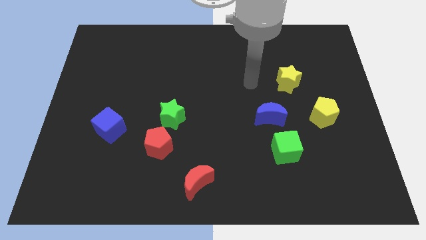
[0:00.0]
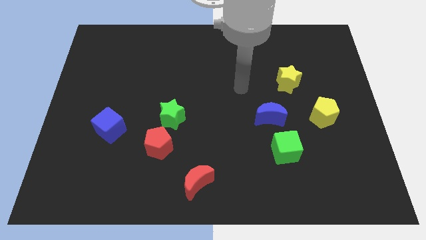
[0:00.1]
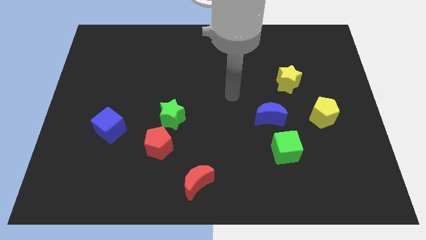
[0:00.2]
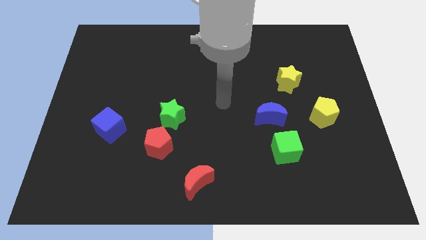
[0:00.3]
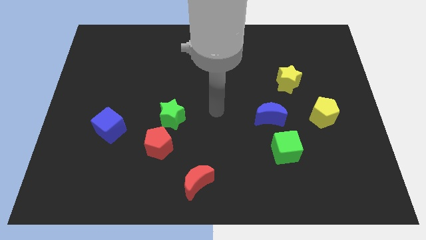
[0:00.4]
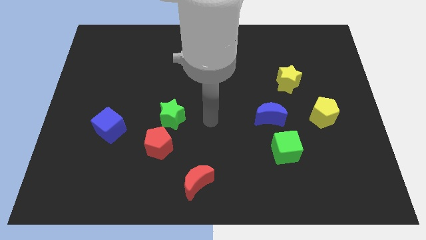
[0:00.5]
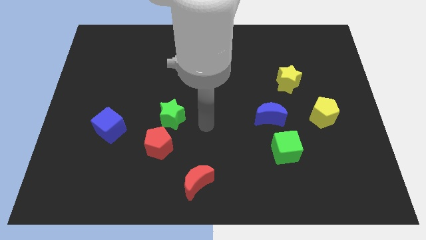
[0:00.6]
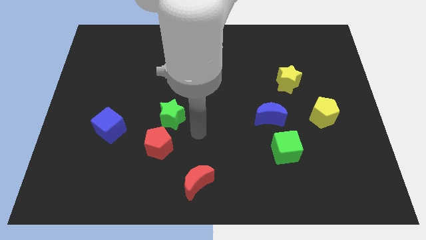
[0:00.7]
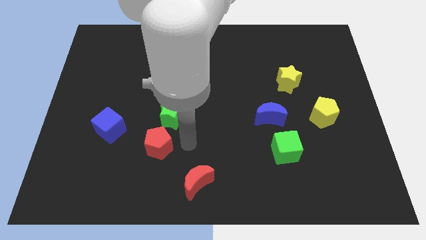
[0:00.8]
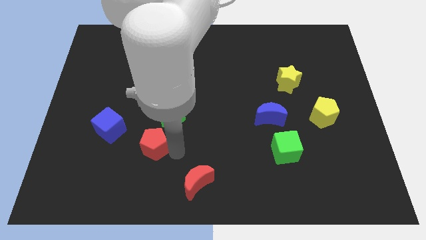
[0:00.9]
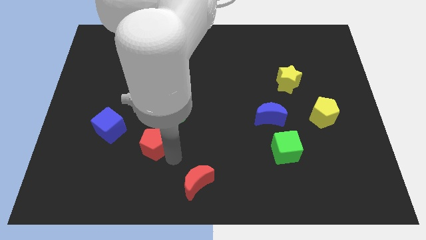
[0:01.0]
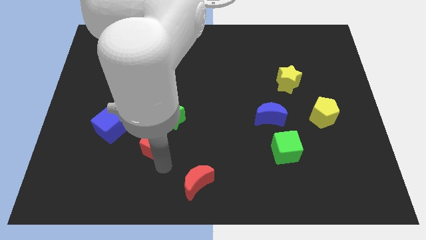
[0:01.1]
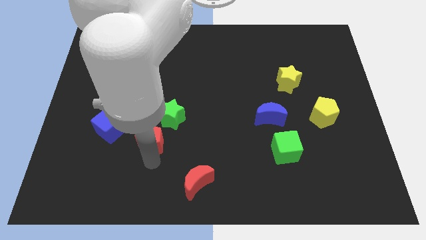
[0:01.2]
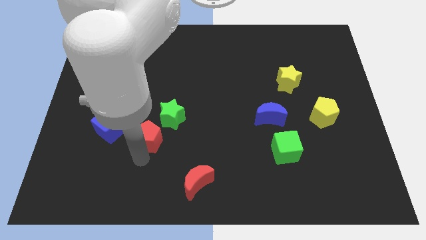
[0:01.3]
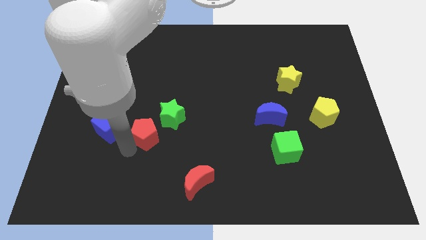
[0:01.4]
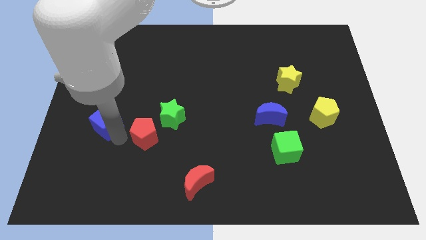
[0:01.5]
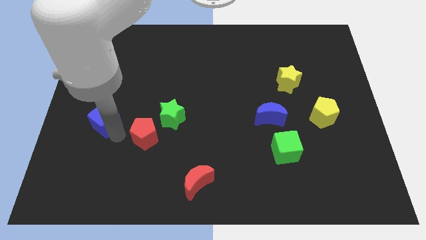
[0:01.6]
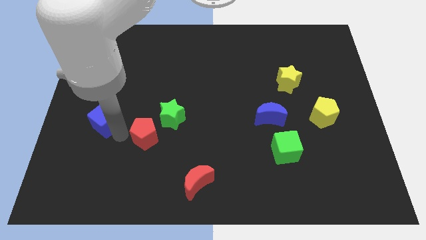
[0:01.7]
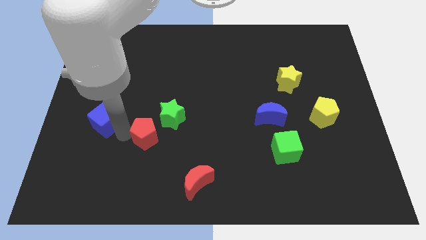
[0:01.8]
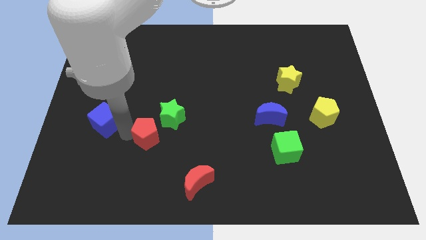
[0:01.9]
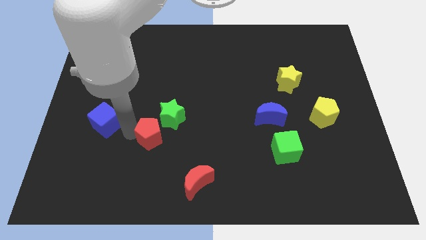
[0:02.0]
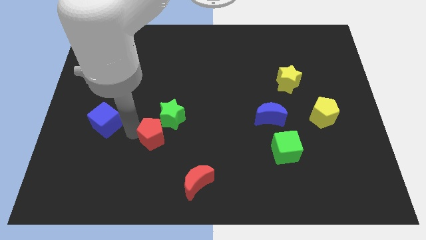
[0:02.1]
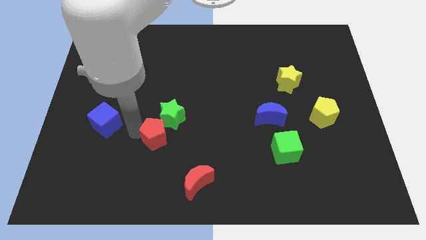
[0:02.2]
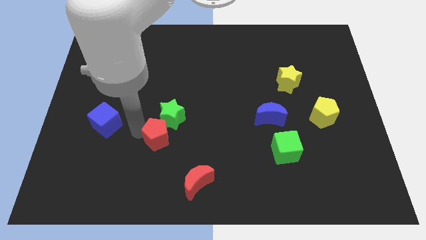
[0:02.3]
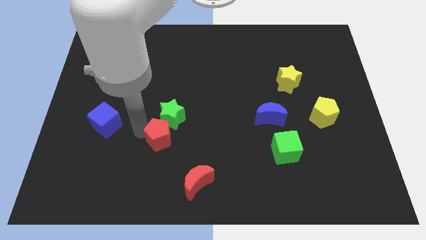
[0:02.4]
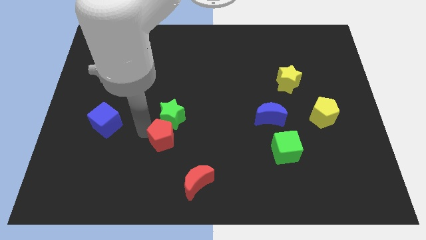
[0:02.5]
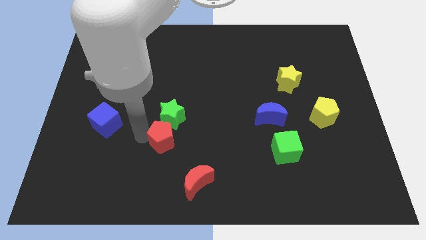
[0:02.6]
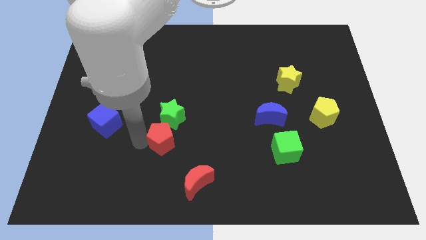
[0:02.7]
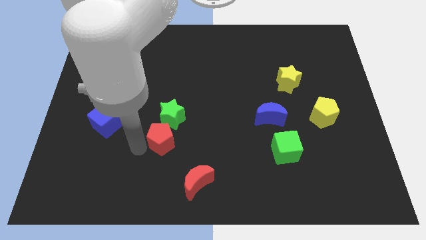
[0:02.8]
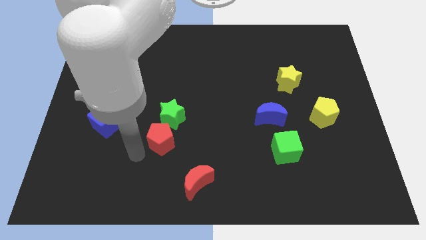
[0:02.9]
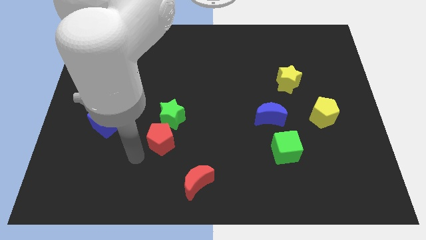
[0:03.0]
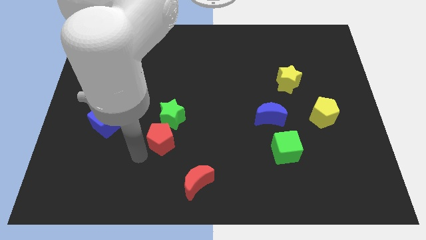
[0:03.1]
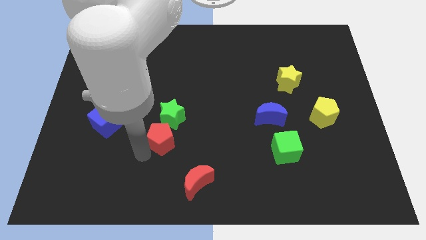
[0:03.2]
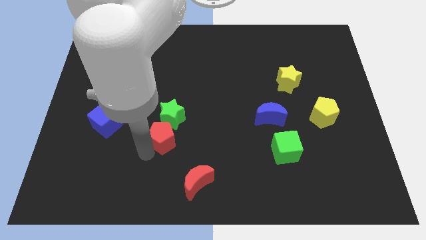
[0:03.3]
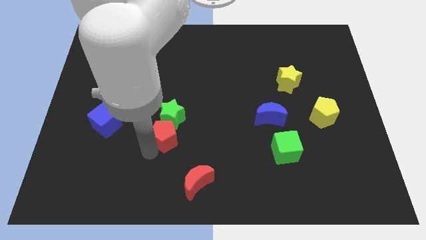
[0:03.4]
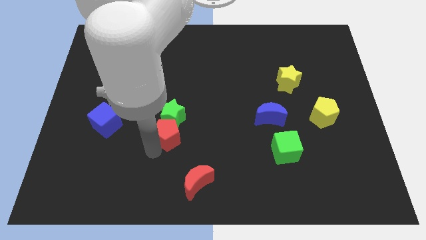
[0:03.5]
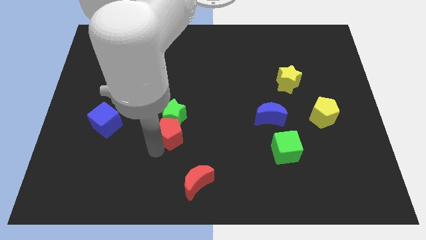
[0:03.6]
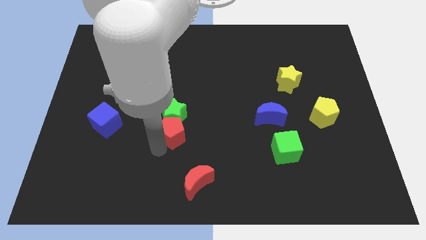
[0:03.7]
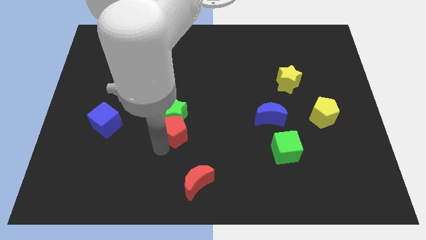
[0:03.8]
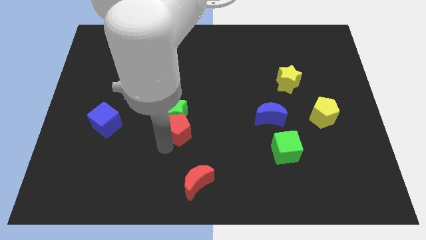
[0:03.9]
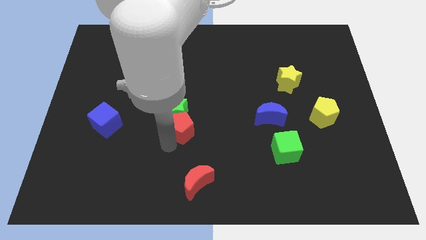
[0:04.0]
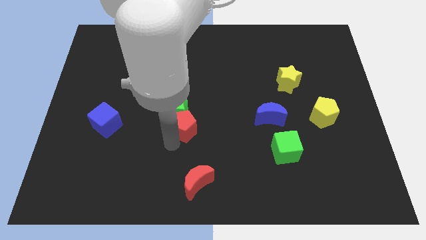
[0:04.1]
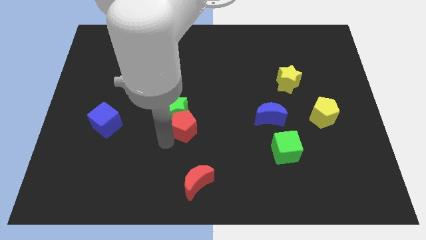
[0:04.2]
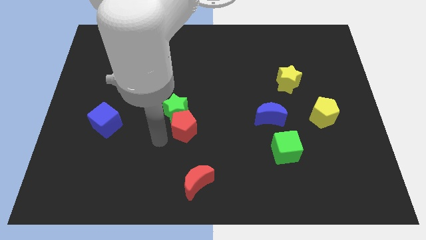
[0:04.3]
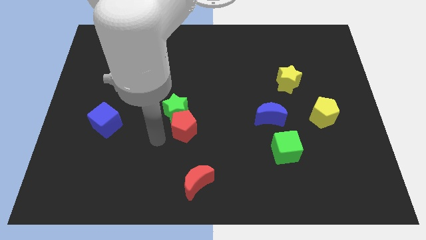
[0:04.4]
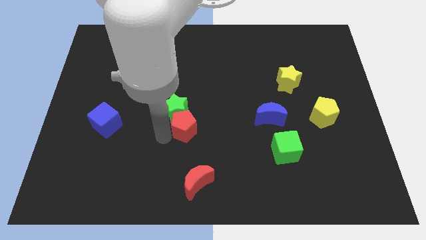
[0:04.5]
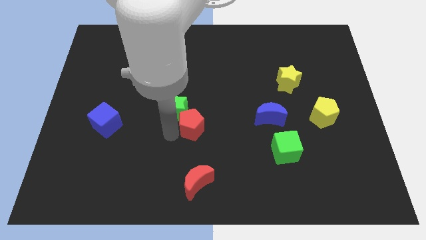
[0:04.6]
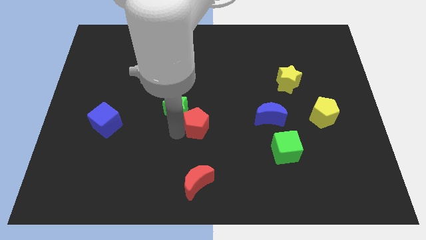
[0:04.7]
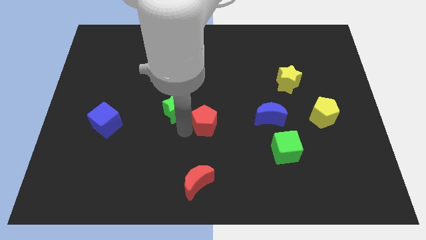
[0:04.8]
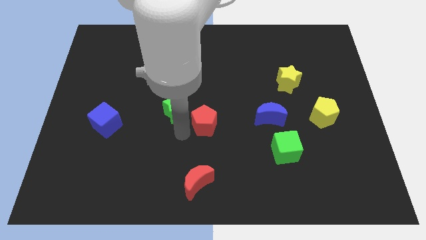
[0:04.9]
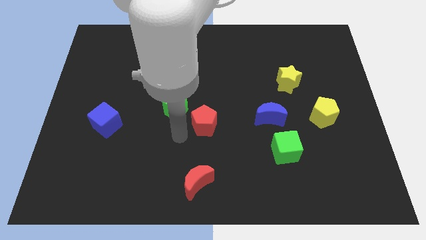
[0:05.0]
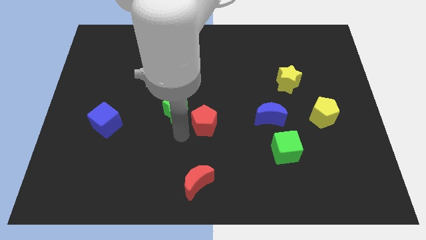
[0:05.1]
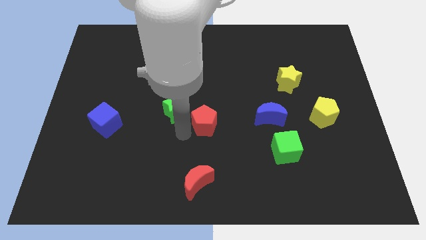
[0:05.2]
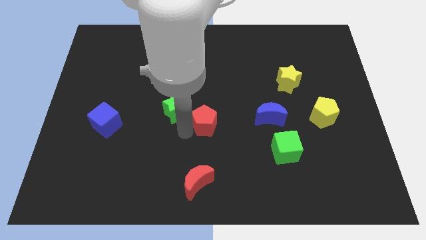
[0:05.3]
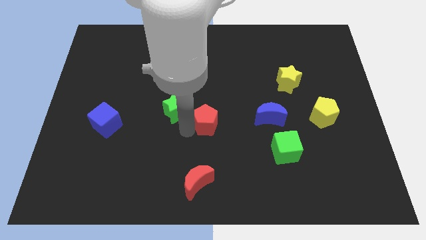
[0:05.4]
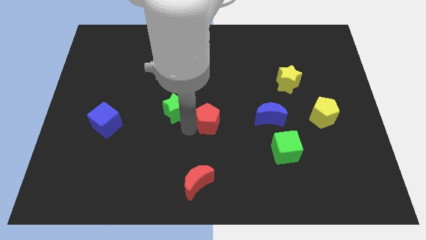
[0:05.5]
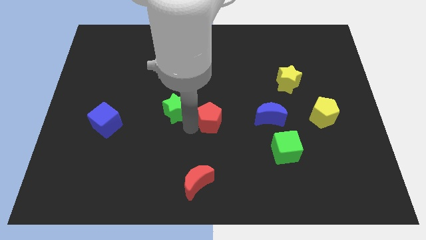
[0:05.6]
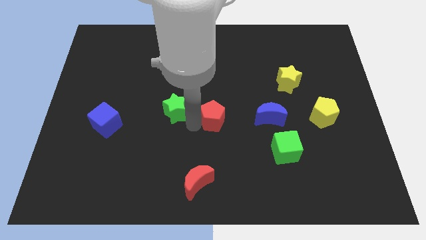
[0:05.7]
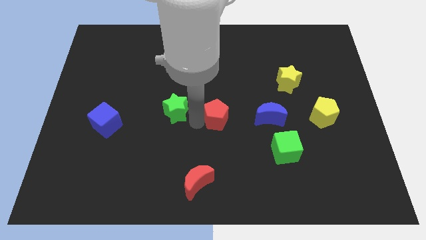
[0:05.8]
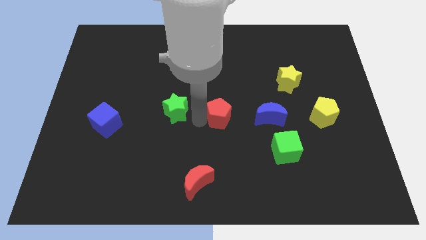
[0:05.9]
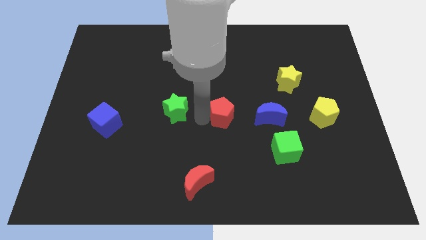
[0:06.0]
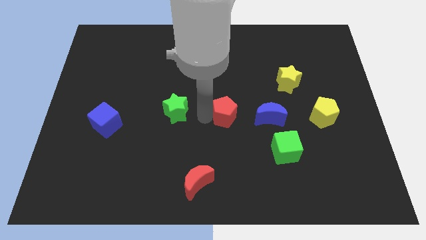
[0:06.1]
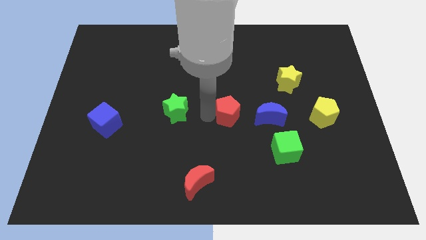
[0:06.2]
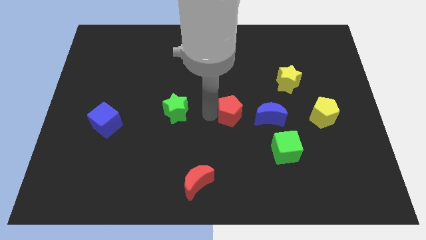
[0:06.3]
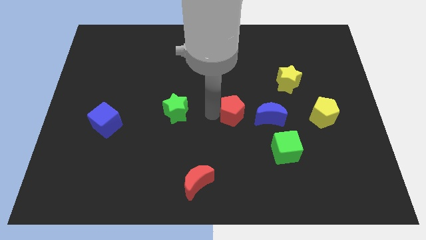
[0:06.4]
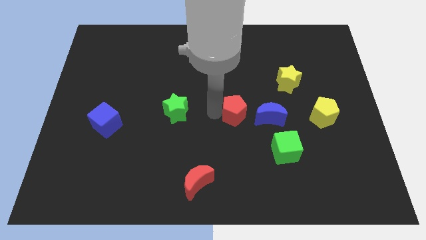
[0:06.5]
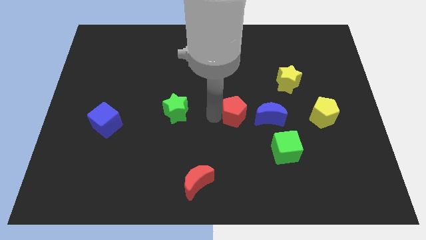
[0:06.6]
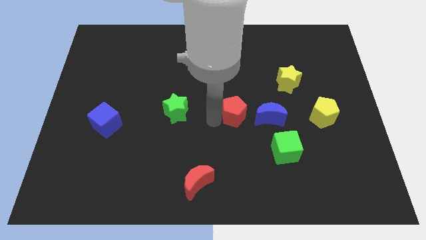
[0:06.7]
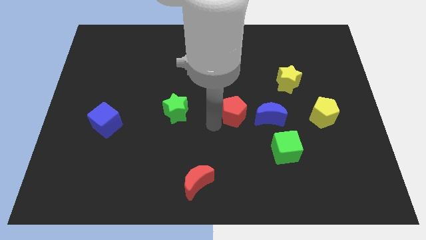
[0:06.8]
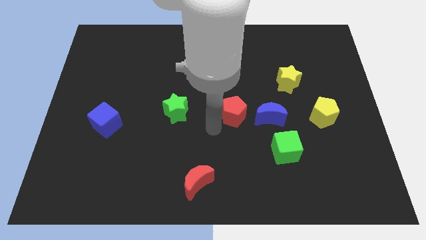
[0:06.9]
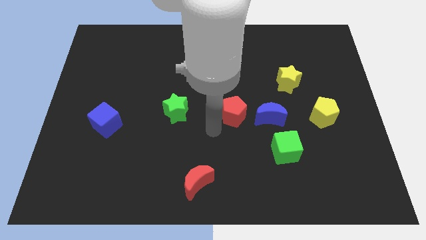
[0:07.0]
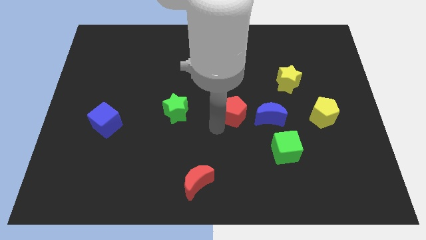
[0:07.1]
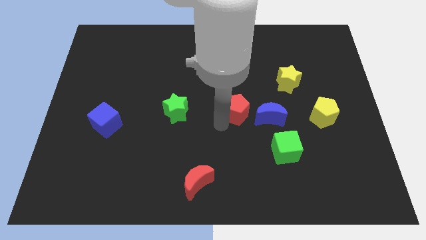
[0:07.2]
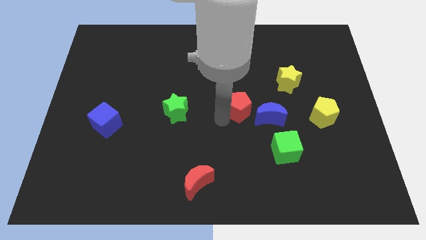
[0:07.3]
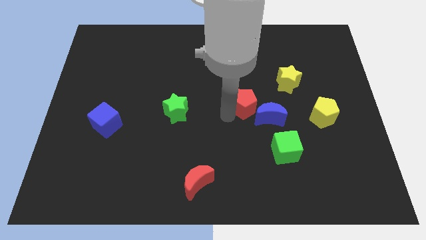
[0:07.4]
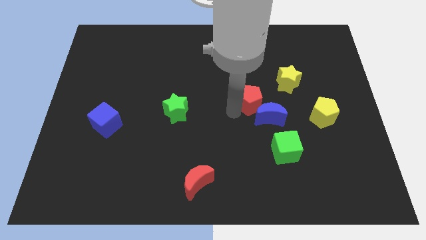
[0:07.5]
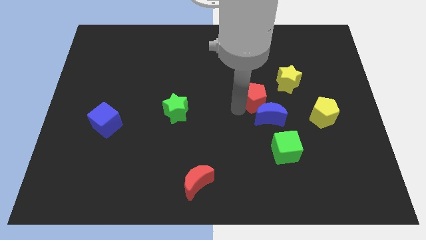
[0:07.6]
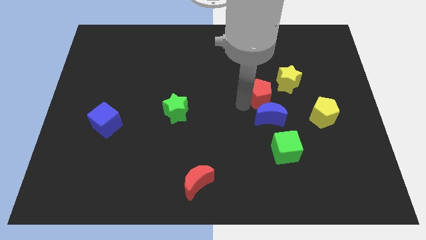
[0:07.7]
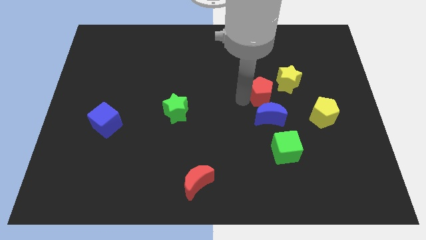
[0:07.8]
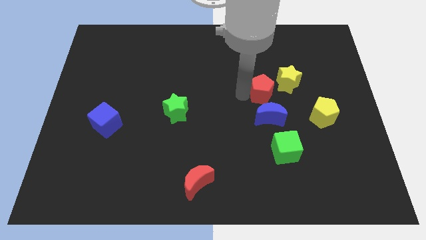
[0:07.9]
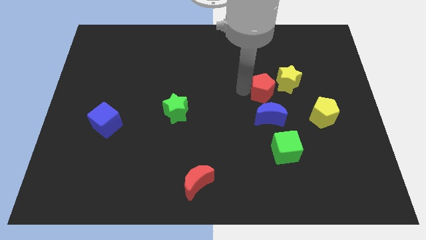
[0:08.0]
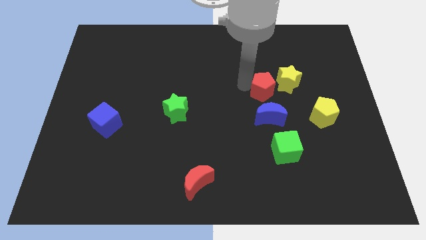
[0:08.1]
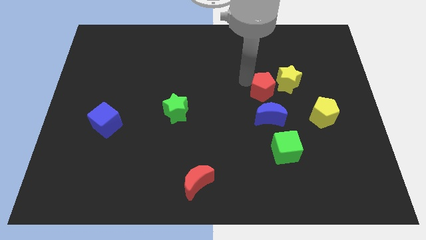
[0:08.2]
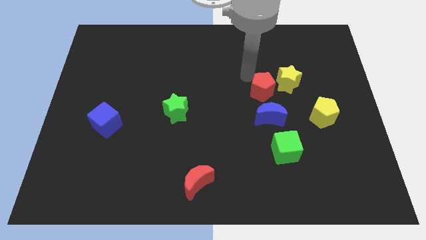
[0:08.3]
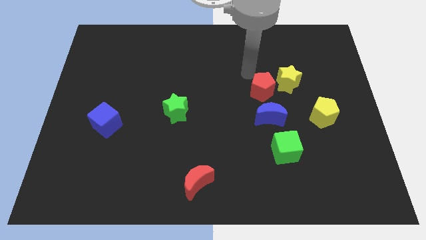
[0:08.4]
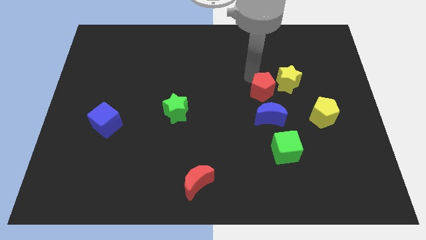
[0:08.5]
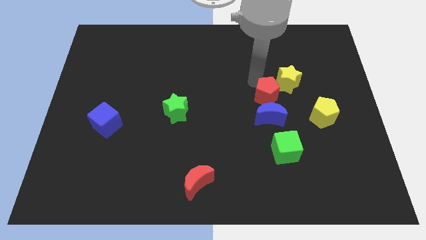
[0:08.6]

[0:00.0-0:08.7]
slide the red pentagon above the green cube
